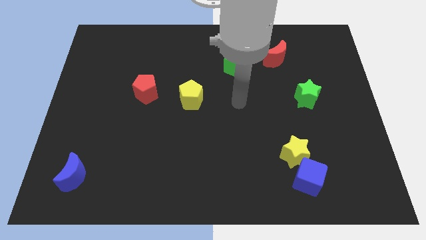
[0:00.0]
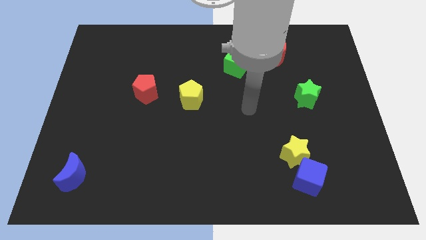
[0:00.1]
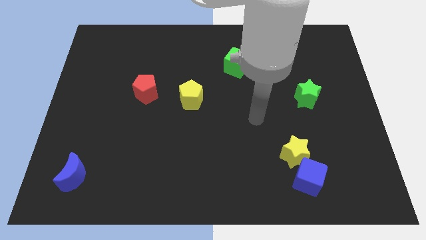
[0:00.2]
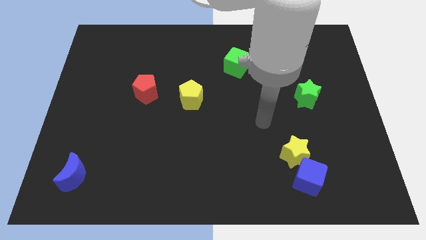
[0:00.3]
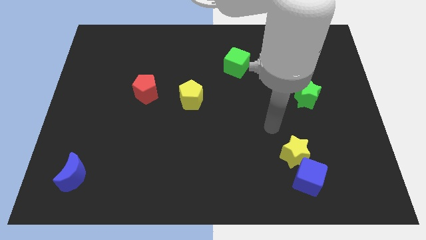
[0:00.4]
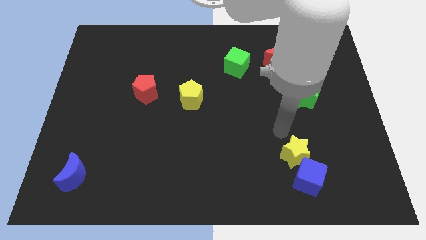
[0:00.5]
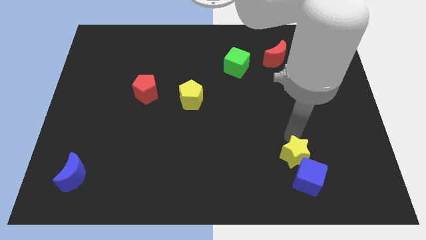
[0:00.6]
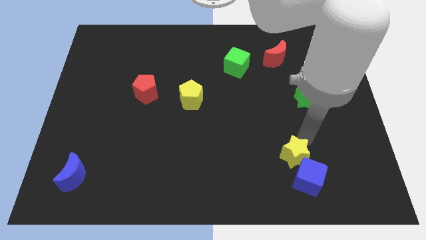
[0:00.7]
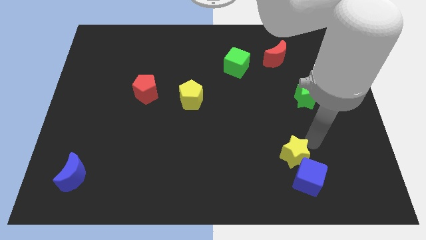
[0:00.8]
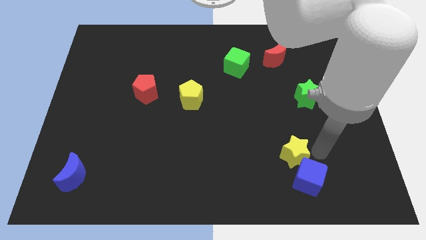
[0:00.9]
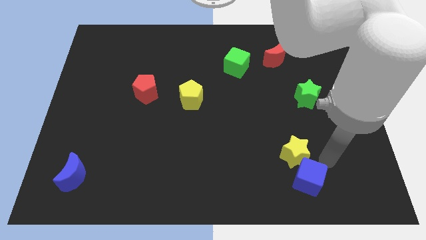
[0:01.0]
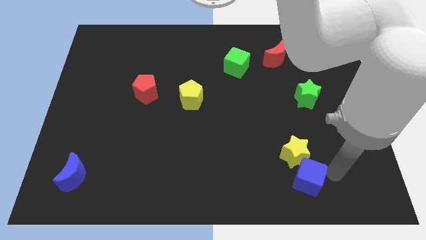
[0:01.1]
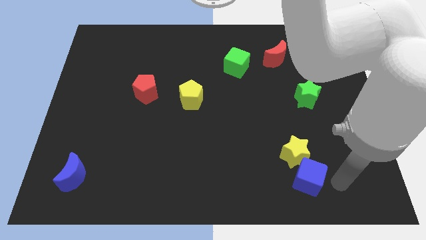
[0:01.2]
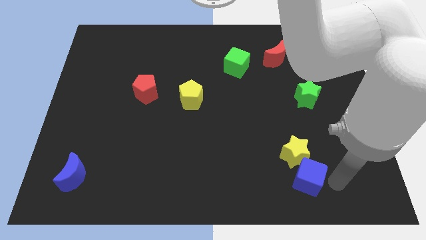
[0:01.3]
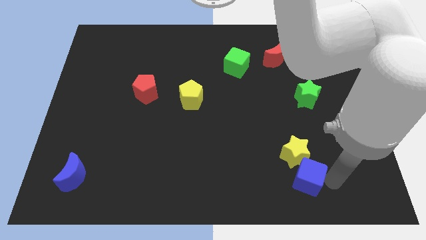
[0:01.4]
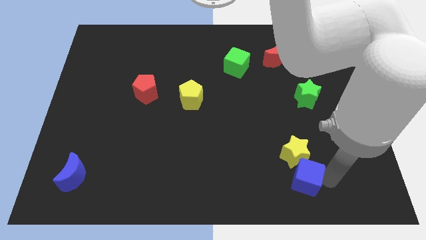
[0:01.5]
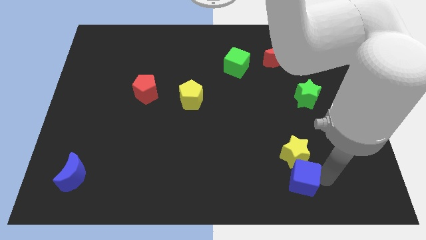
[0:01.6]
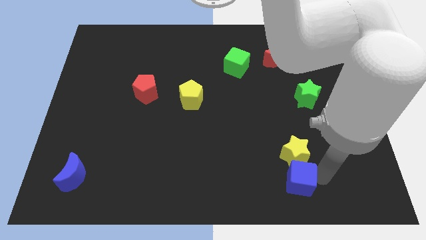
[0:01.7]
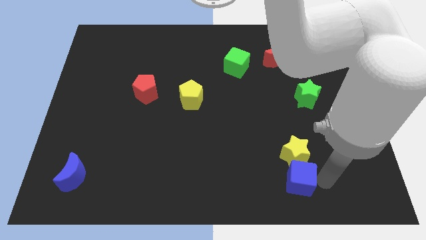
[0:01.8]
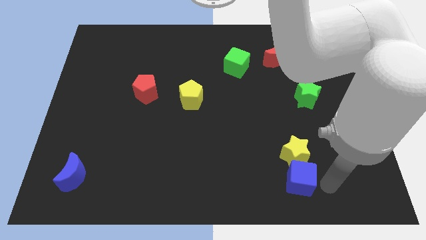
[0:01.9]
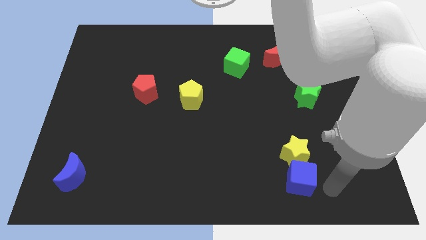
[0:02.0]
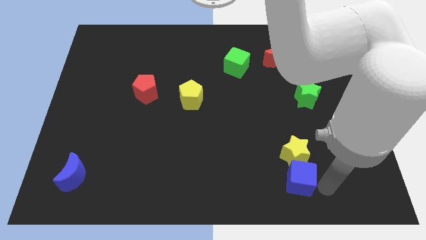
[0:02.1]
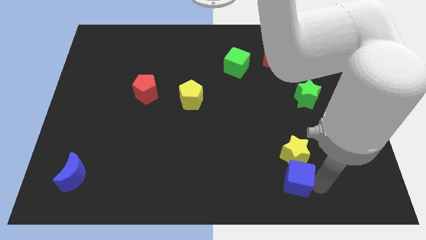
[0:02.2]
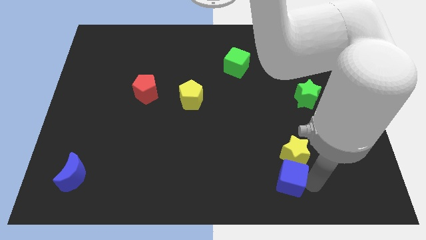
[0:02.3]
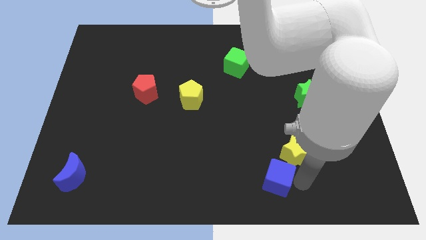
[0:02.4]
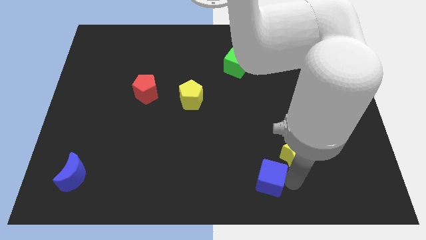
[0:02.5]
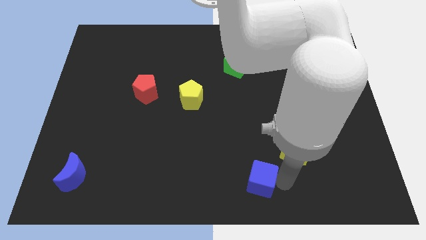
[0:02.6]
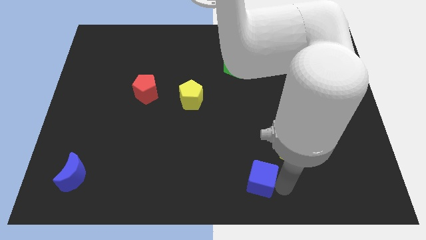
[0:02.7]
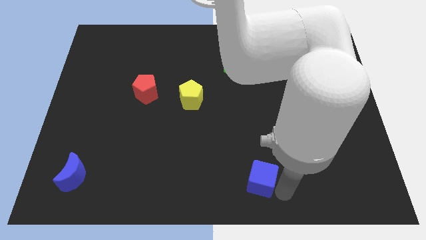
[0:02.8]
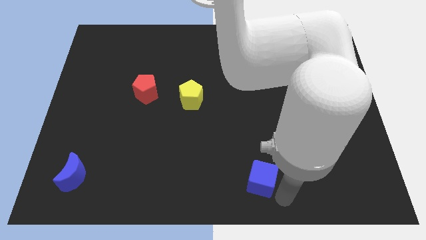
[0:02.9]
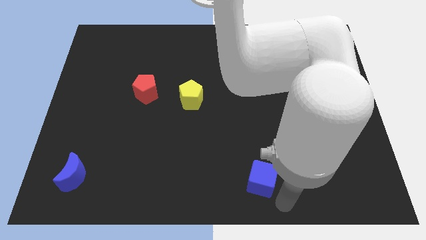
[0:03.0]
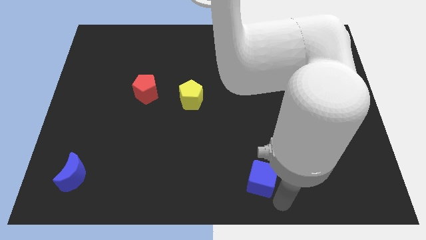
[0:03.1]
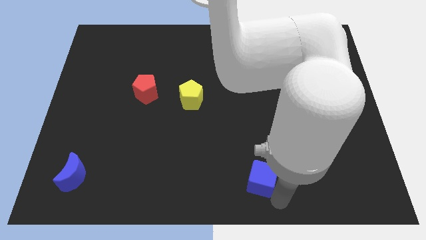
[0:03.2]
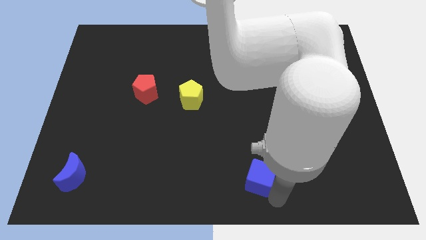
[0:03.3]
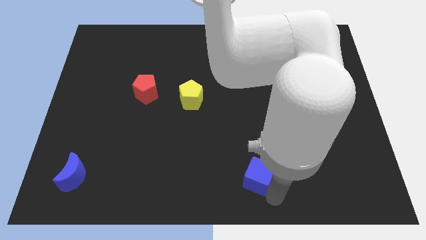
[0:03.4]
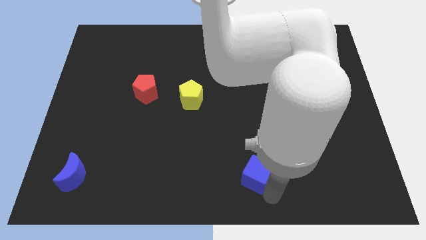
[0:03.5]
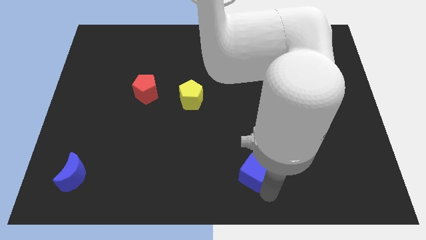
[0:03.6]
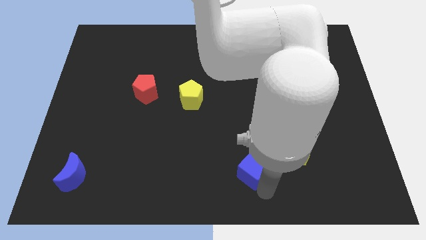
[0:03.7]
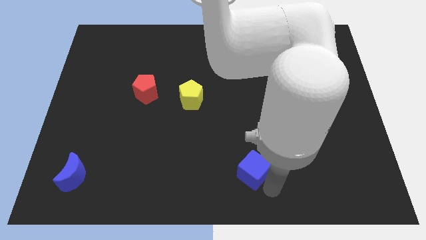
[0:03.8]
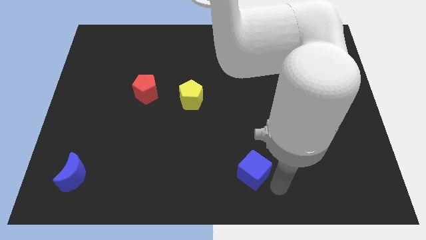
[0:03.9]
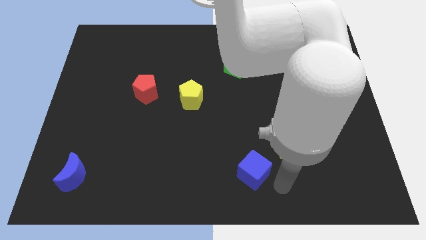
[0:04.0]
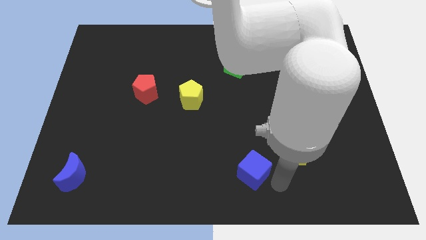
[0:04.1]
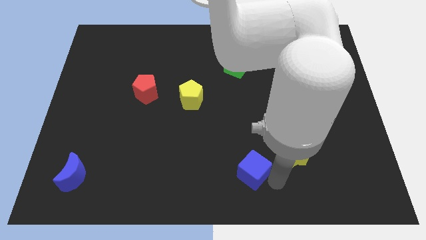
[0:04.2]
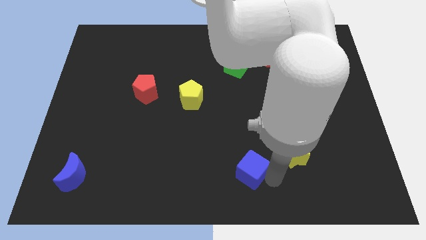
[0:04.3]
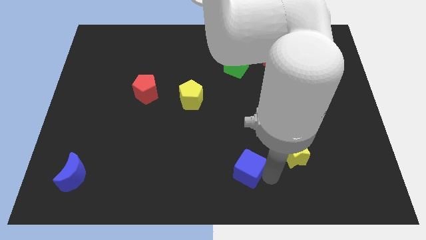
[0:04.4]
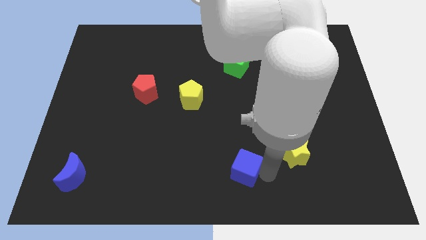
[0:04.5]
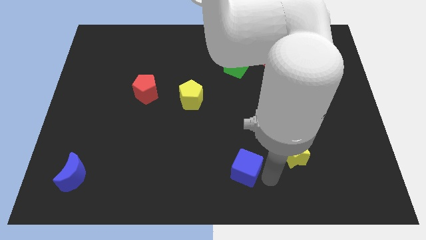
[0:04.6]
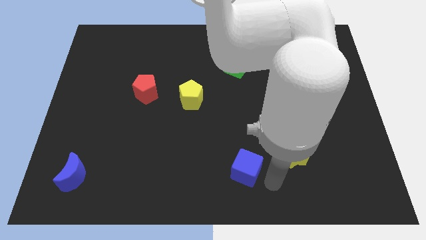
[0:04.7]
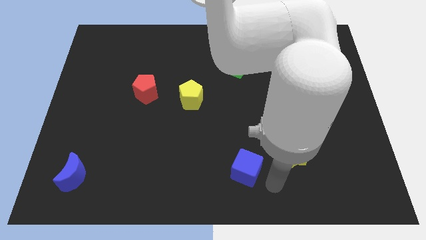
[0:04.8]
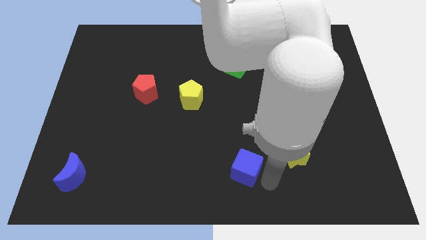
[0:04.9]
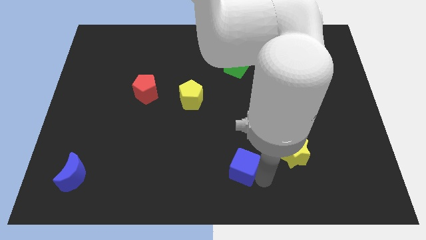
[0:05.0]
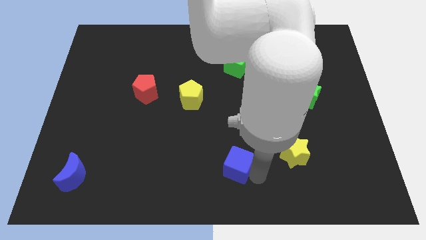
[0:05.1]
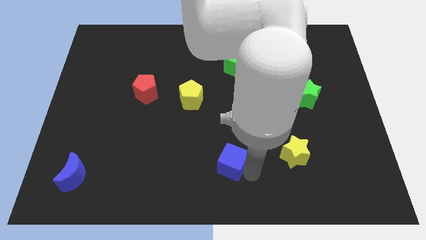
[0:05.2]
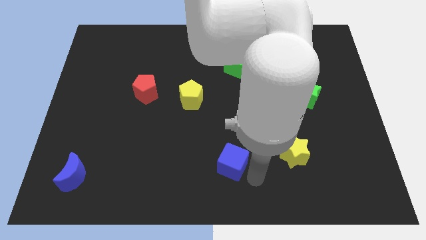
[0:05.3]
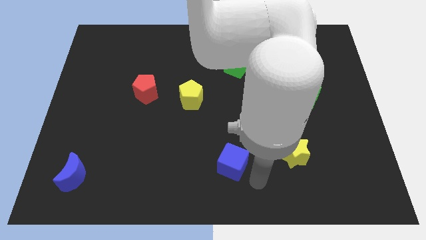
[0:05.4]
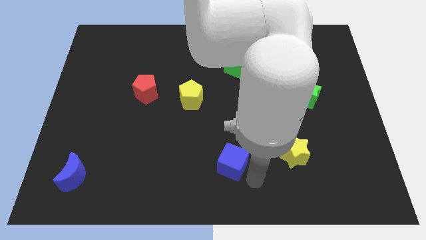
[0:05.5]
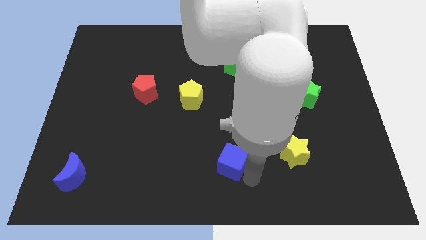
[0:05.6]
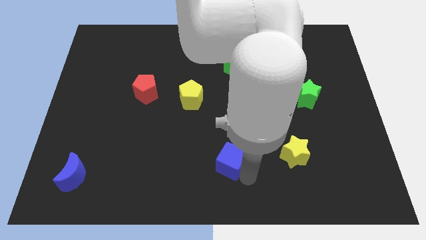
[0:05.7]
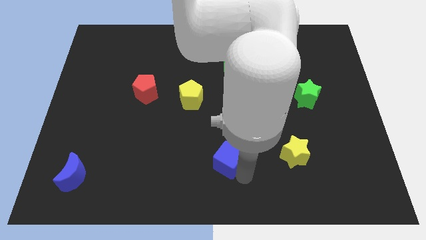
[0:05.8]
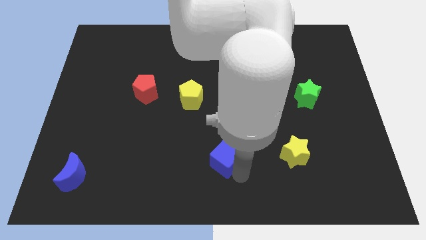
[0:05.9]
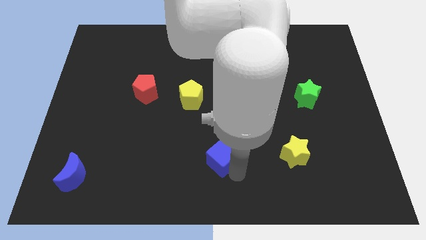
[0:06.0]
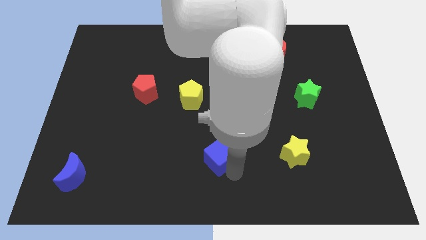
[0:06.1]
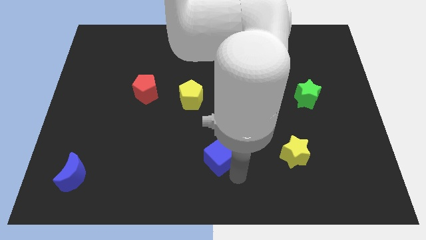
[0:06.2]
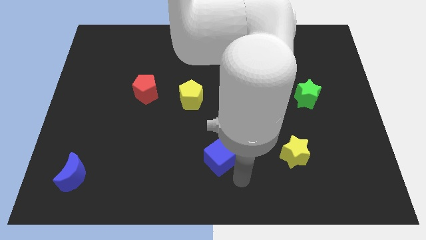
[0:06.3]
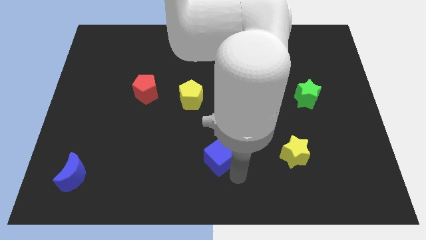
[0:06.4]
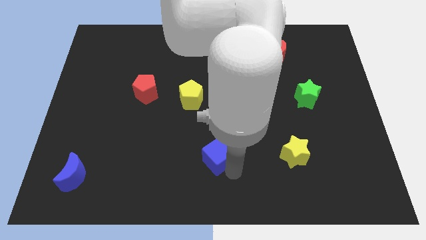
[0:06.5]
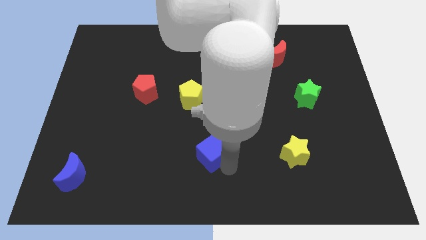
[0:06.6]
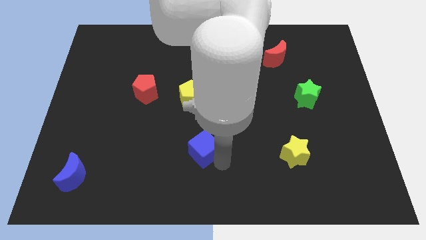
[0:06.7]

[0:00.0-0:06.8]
slide the blue cube to the bottom side of the yellow pentagon
